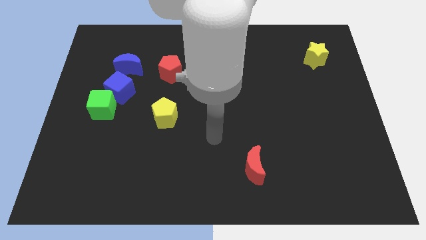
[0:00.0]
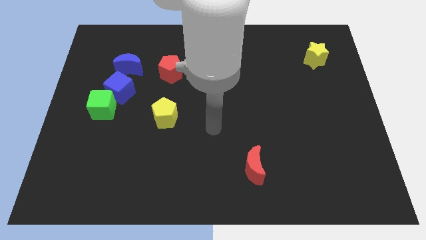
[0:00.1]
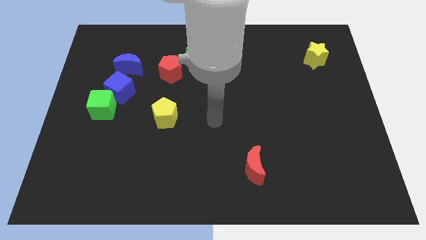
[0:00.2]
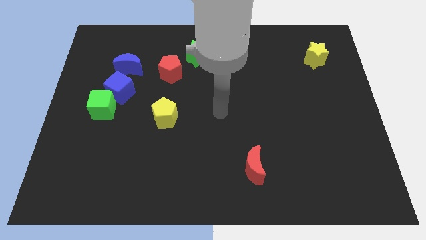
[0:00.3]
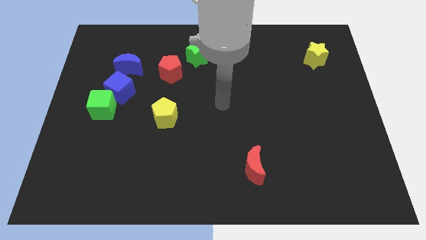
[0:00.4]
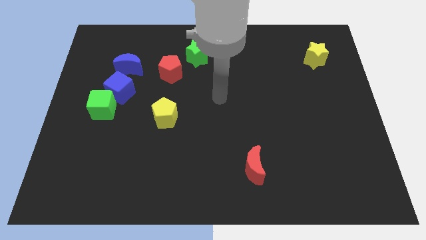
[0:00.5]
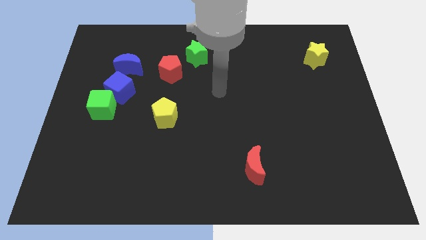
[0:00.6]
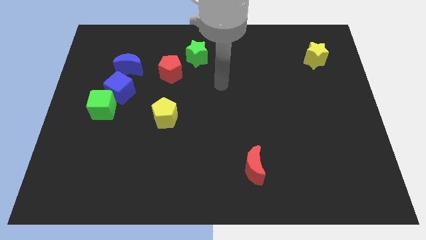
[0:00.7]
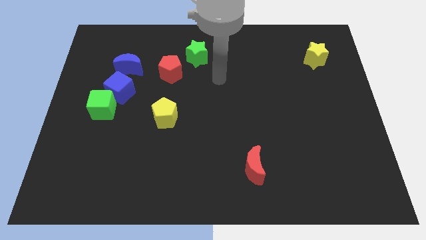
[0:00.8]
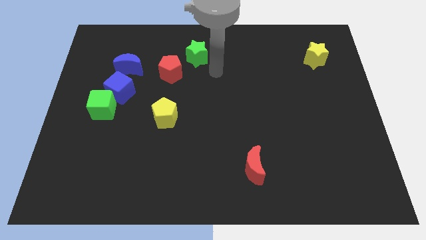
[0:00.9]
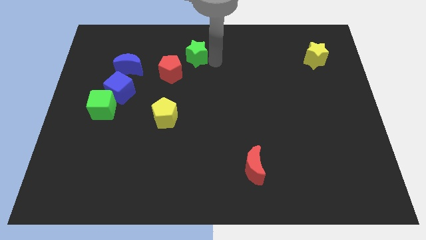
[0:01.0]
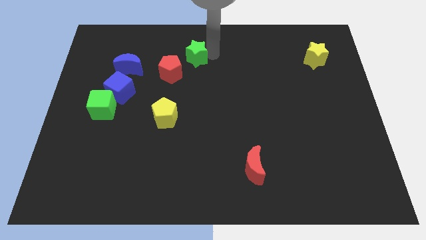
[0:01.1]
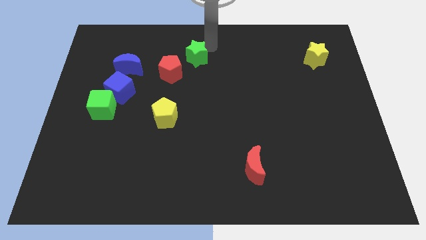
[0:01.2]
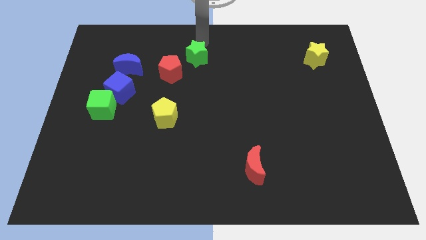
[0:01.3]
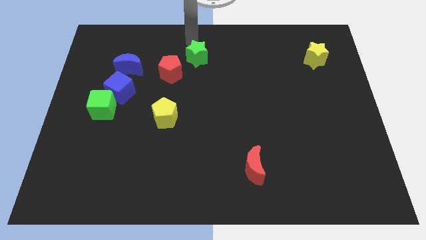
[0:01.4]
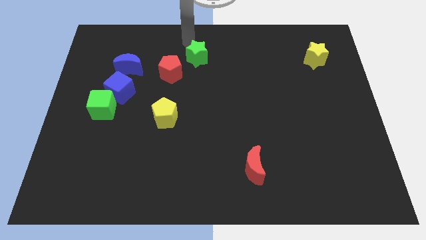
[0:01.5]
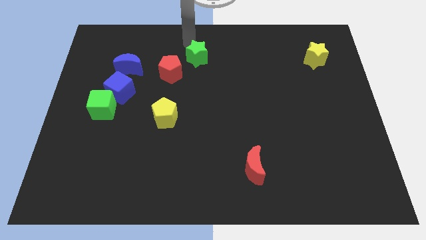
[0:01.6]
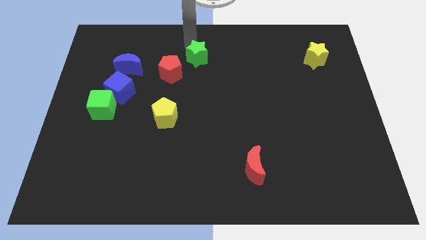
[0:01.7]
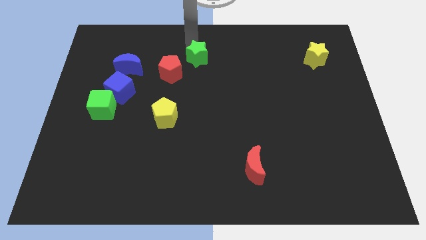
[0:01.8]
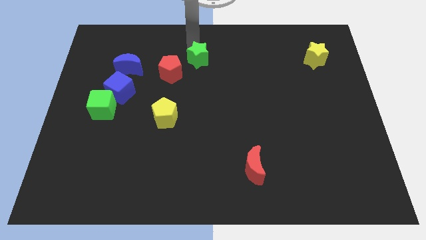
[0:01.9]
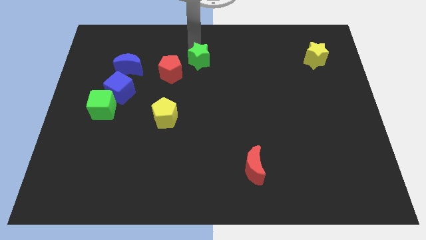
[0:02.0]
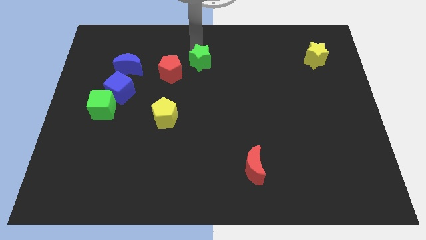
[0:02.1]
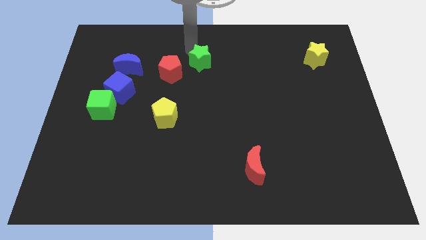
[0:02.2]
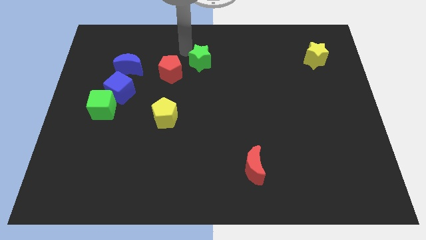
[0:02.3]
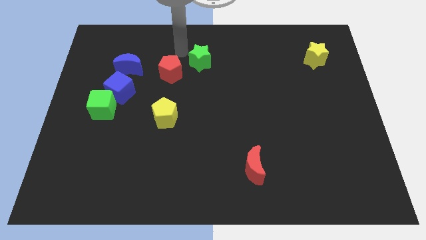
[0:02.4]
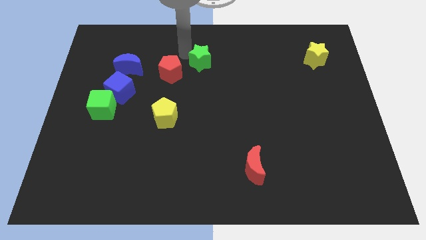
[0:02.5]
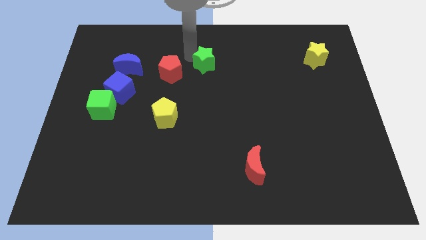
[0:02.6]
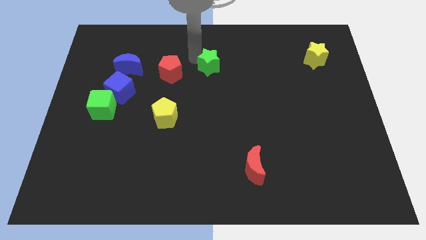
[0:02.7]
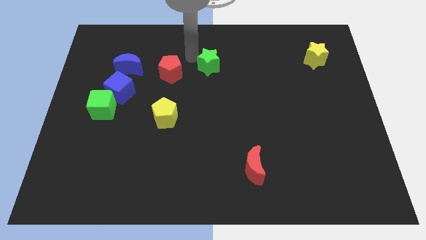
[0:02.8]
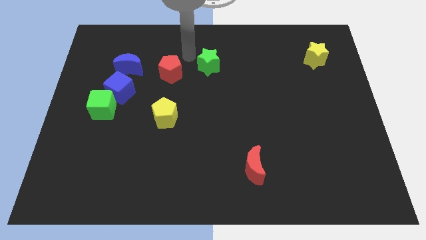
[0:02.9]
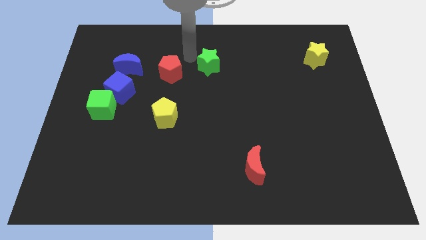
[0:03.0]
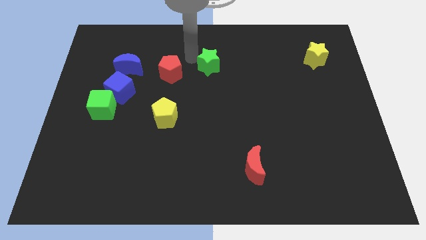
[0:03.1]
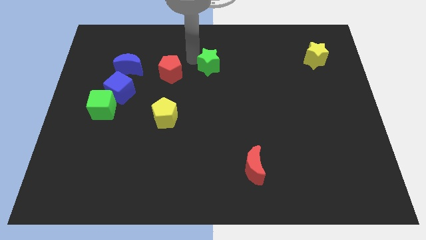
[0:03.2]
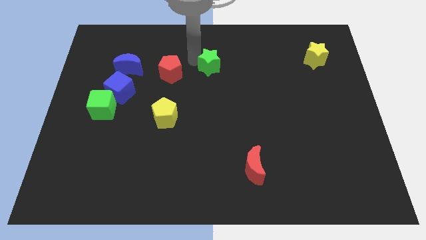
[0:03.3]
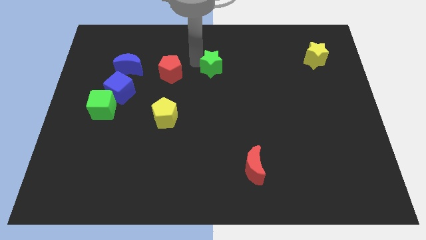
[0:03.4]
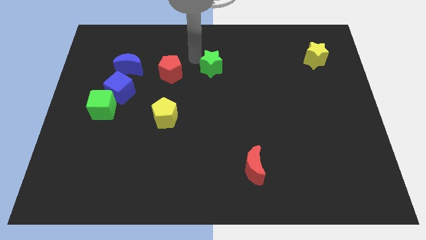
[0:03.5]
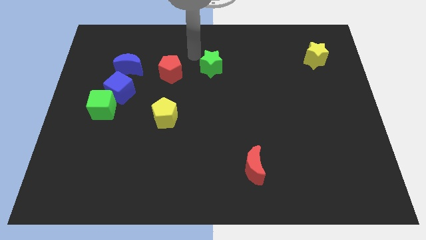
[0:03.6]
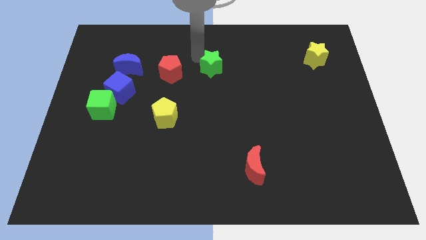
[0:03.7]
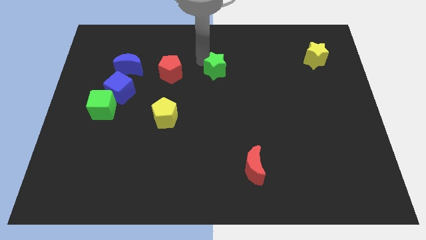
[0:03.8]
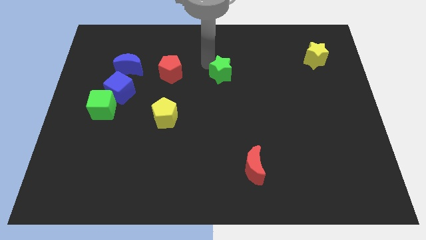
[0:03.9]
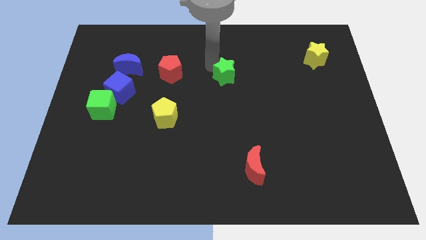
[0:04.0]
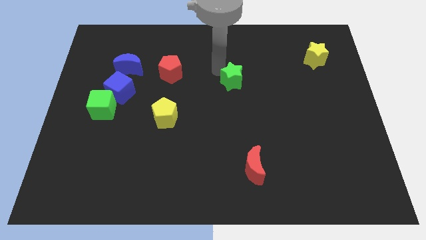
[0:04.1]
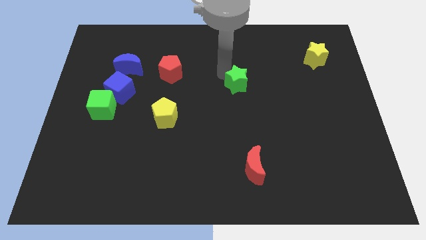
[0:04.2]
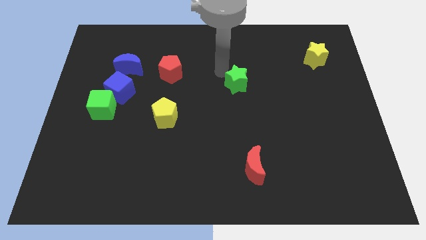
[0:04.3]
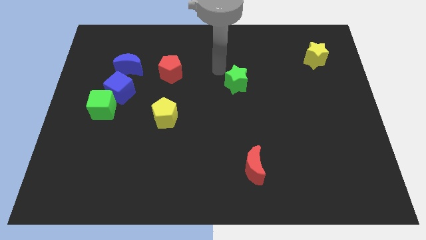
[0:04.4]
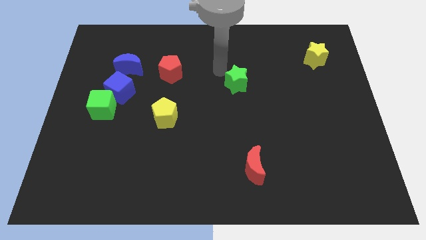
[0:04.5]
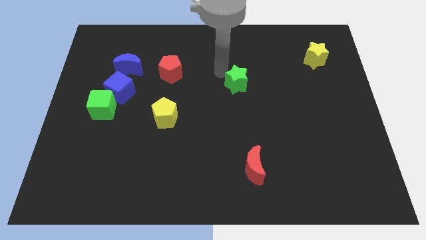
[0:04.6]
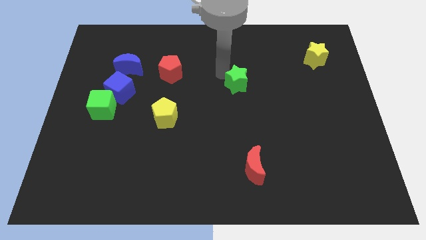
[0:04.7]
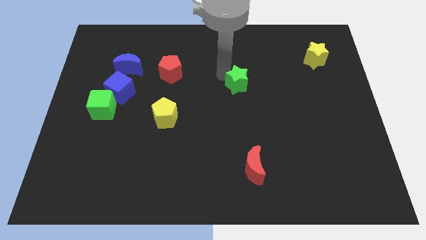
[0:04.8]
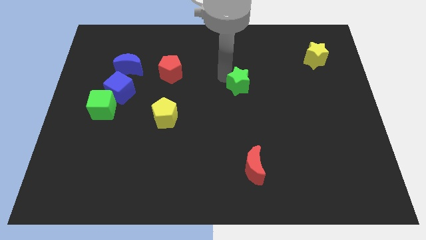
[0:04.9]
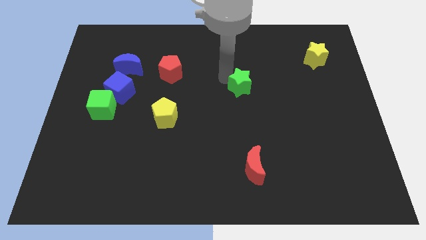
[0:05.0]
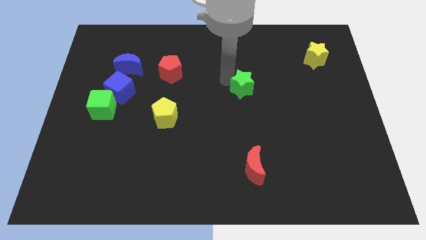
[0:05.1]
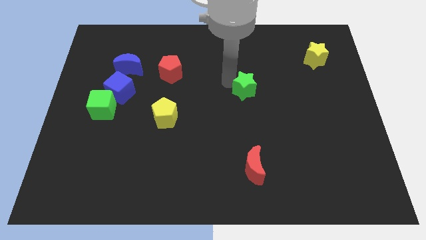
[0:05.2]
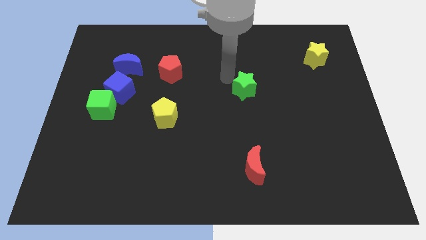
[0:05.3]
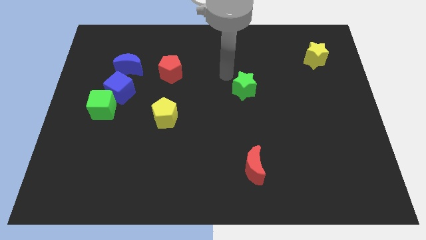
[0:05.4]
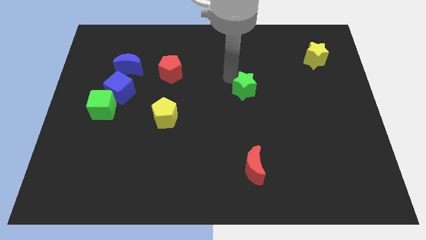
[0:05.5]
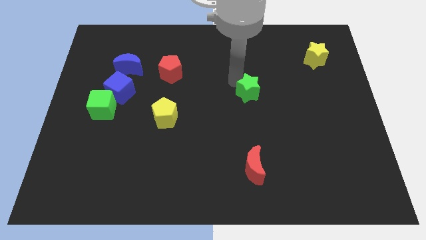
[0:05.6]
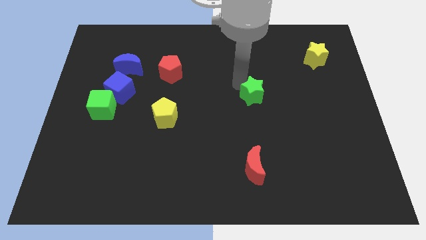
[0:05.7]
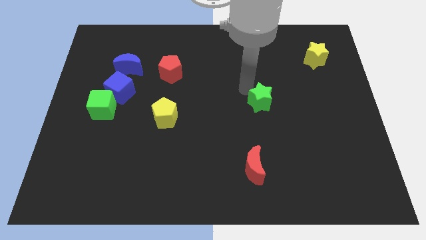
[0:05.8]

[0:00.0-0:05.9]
slide the green star downwards and then right

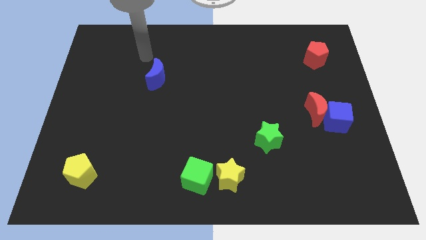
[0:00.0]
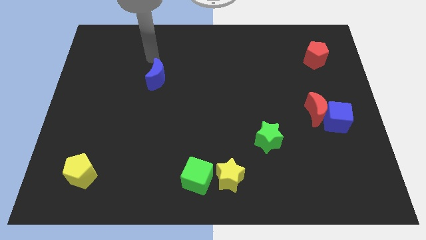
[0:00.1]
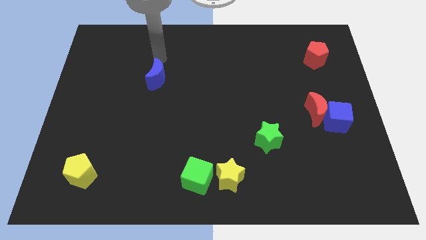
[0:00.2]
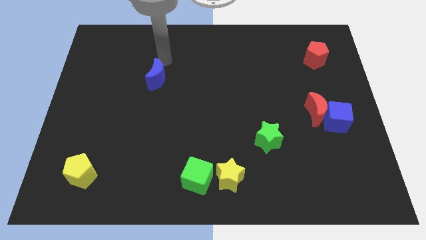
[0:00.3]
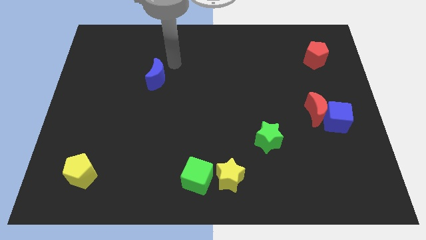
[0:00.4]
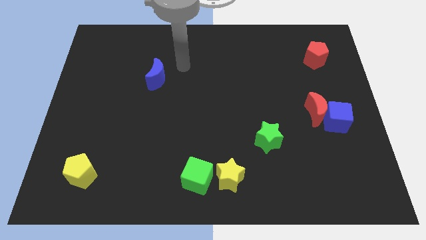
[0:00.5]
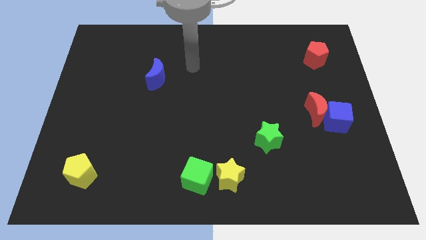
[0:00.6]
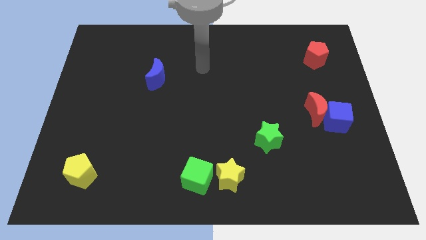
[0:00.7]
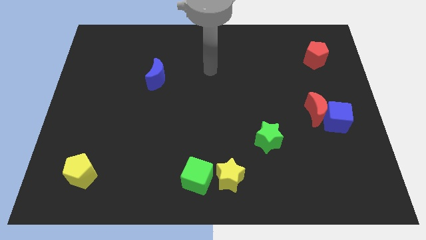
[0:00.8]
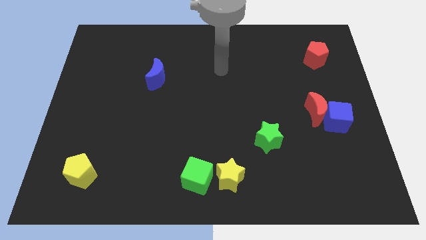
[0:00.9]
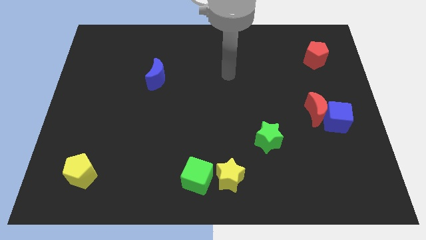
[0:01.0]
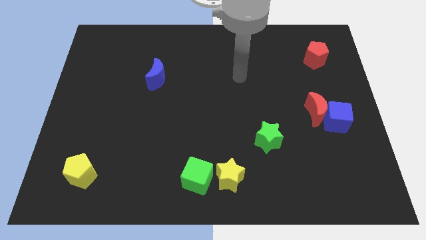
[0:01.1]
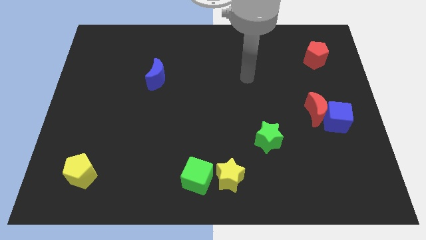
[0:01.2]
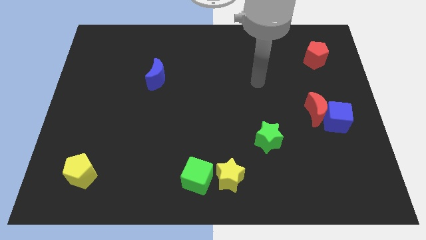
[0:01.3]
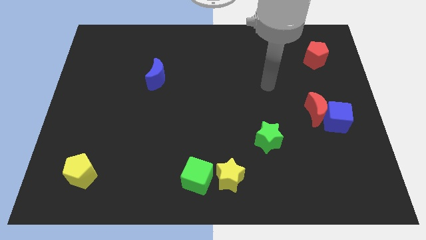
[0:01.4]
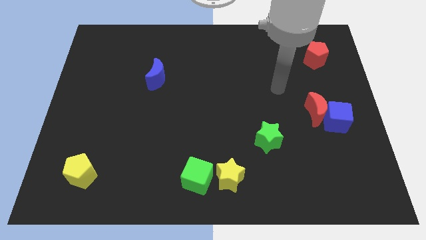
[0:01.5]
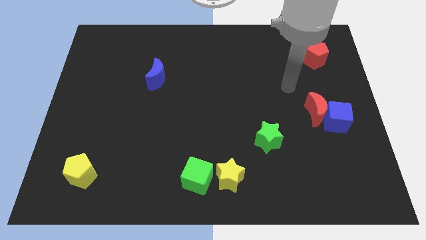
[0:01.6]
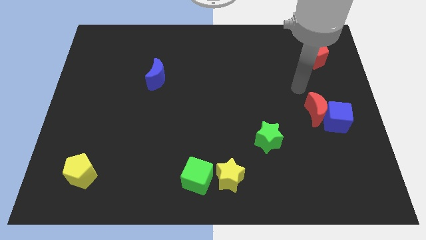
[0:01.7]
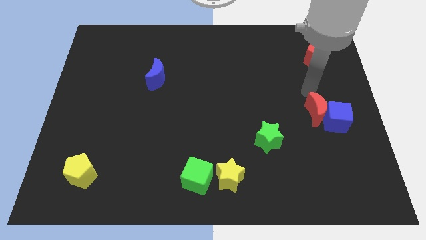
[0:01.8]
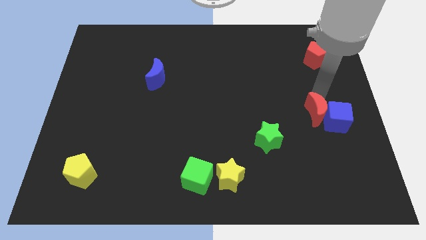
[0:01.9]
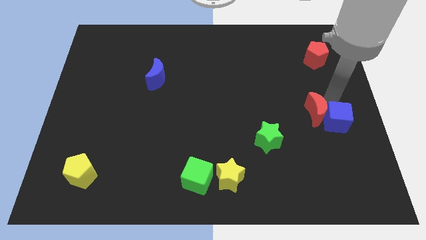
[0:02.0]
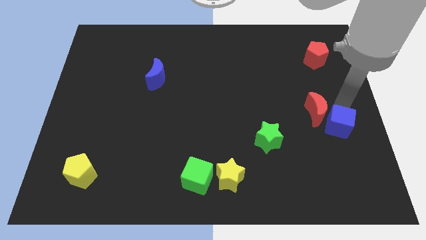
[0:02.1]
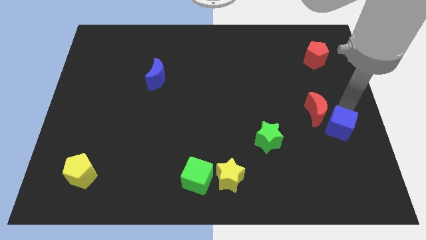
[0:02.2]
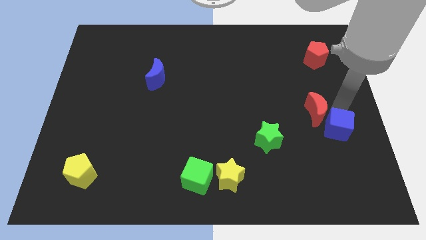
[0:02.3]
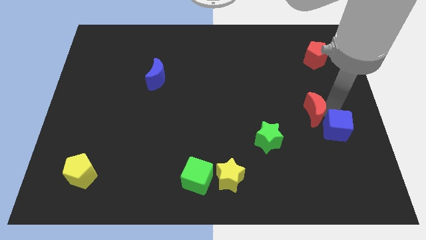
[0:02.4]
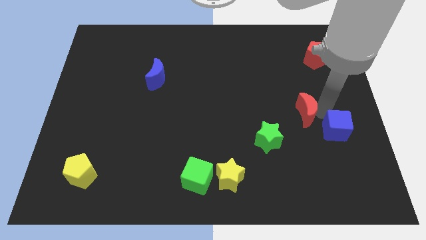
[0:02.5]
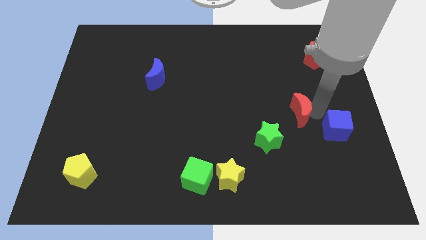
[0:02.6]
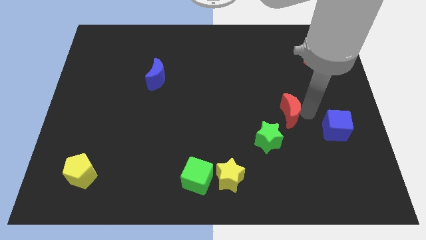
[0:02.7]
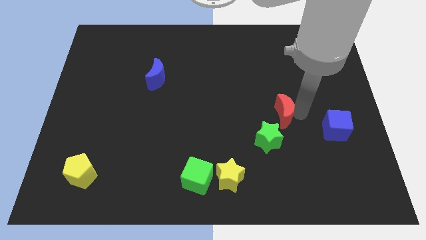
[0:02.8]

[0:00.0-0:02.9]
slightly slide the red moon to the left
